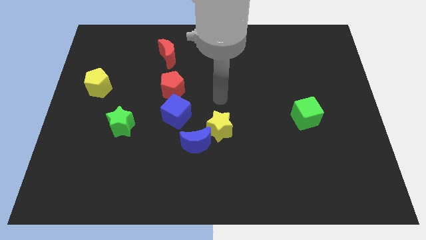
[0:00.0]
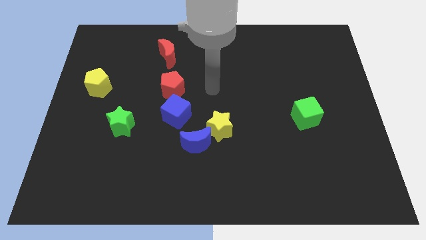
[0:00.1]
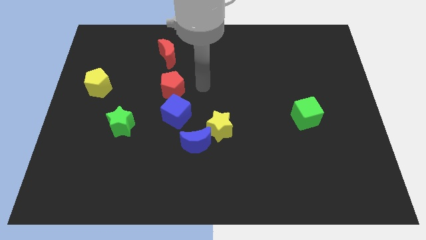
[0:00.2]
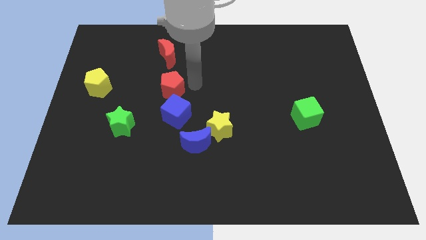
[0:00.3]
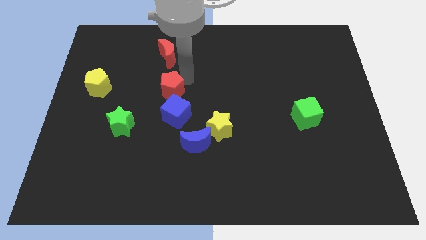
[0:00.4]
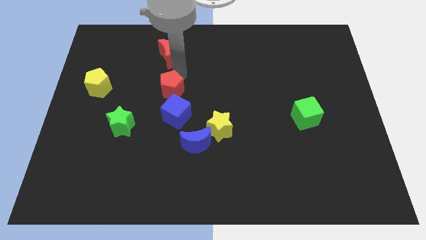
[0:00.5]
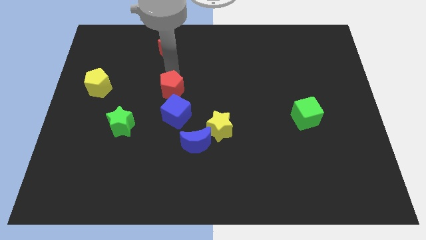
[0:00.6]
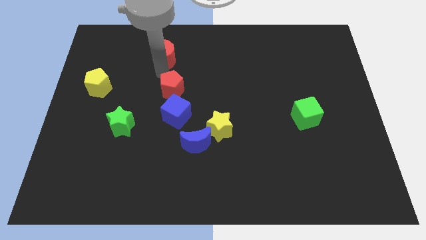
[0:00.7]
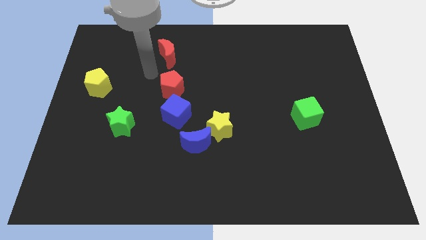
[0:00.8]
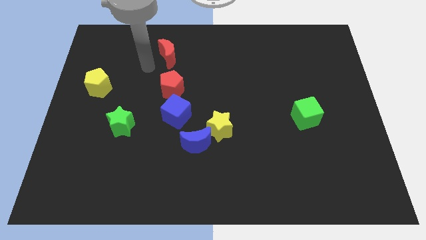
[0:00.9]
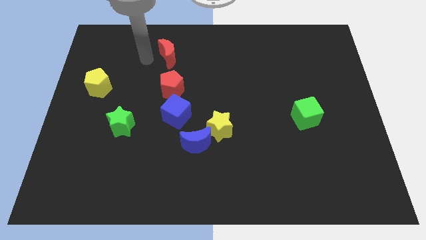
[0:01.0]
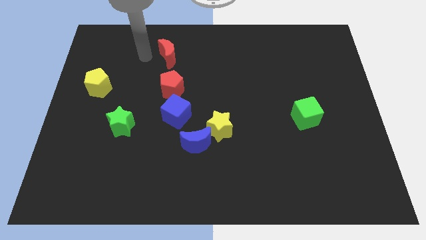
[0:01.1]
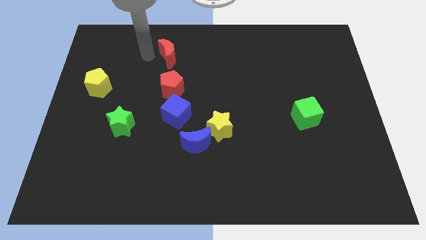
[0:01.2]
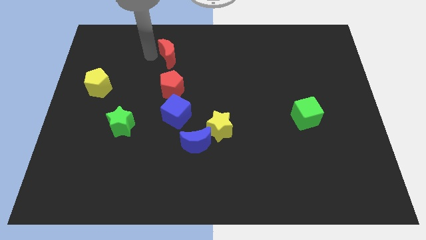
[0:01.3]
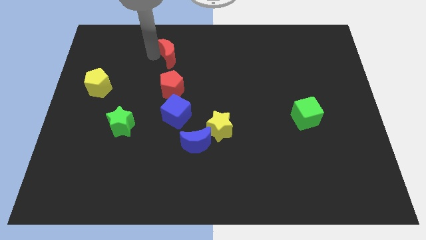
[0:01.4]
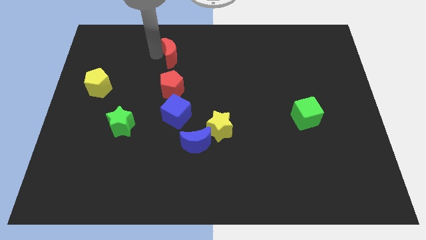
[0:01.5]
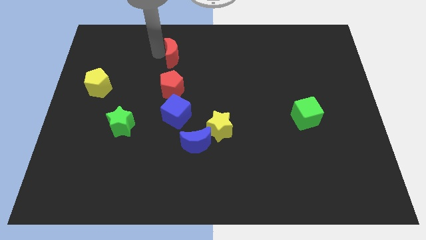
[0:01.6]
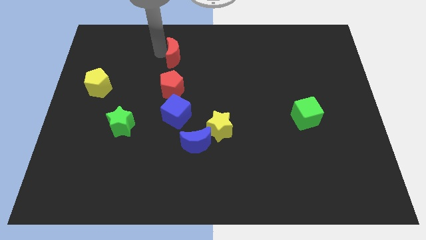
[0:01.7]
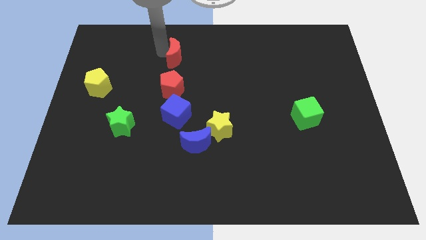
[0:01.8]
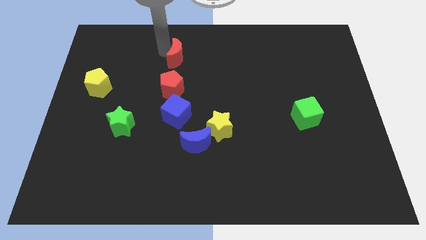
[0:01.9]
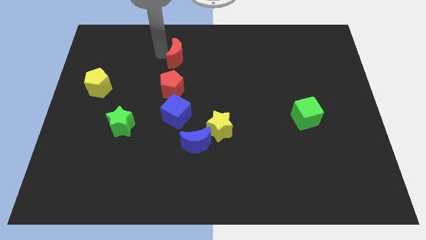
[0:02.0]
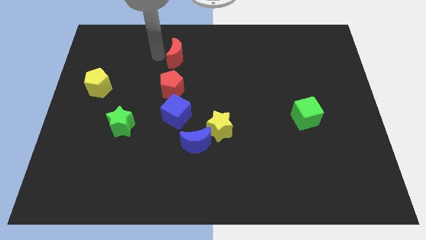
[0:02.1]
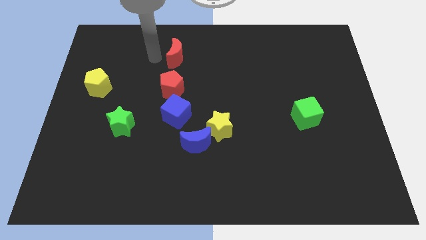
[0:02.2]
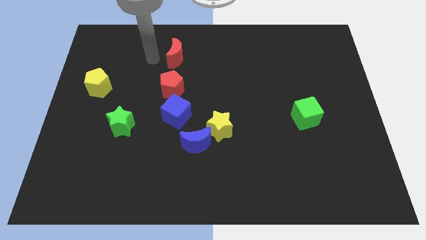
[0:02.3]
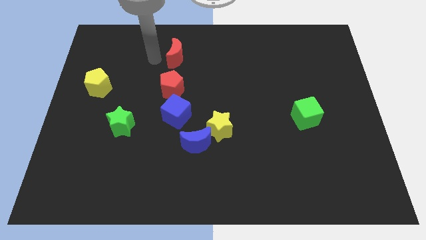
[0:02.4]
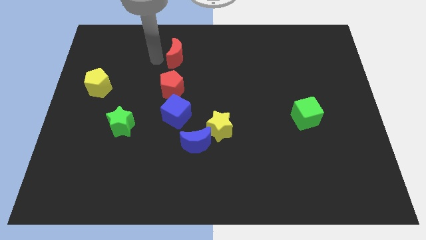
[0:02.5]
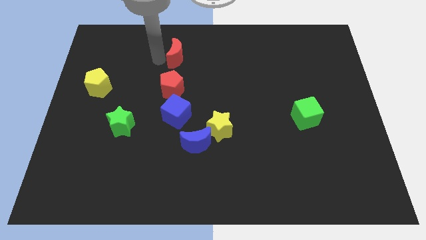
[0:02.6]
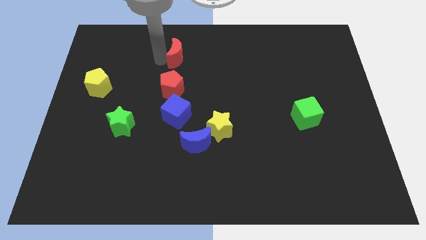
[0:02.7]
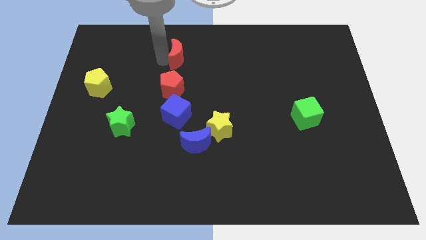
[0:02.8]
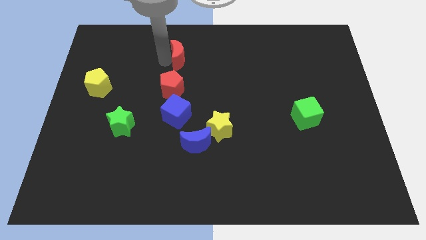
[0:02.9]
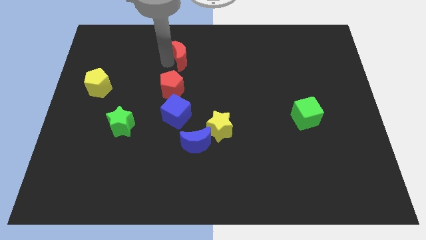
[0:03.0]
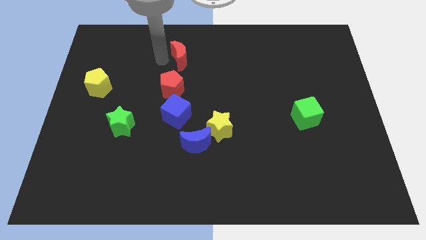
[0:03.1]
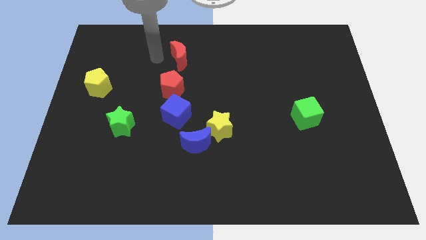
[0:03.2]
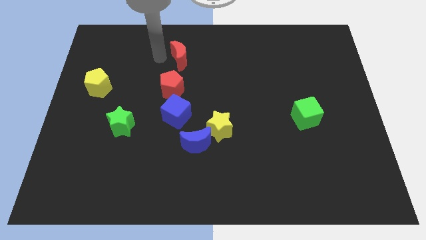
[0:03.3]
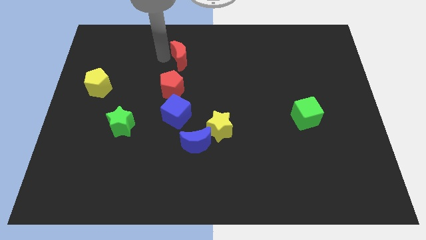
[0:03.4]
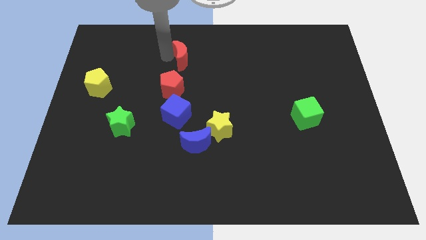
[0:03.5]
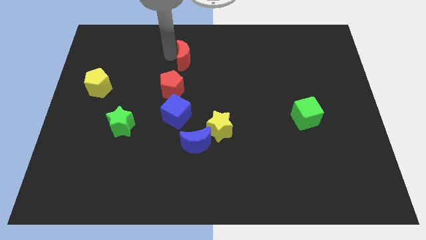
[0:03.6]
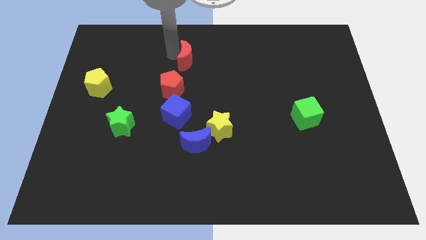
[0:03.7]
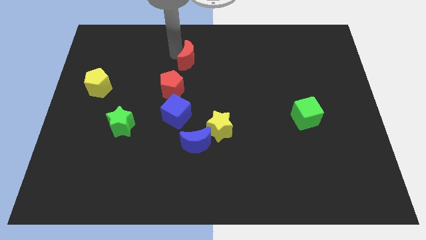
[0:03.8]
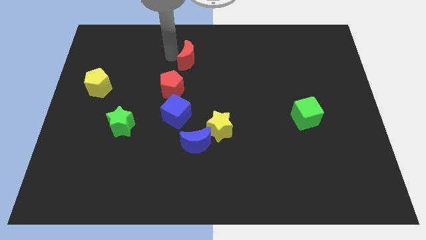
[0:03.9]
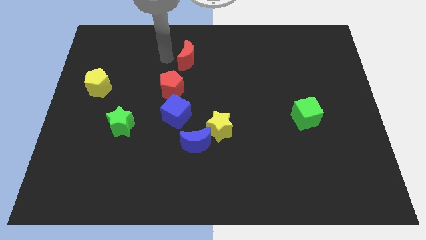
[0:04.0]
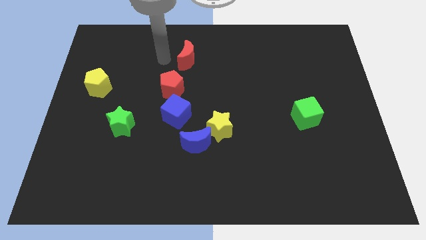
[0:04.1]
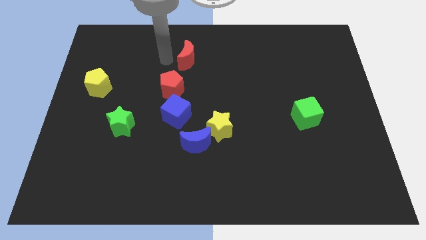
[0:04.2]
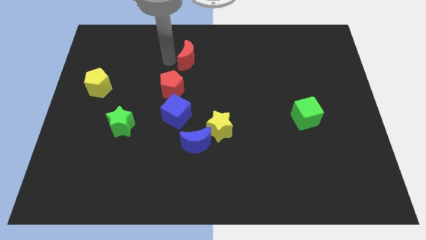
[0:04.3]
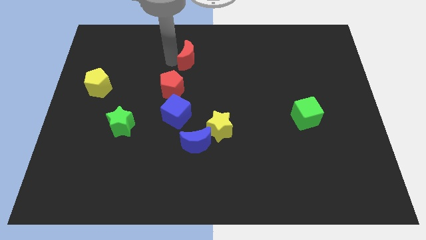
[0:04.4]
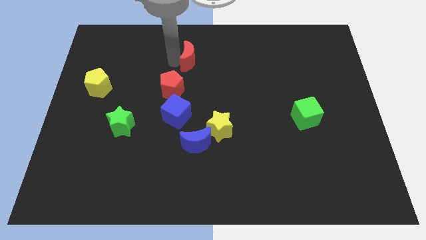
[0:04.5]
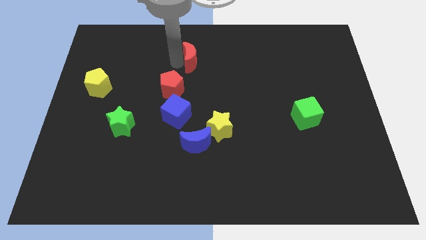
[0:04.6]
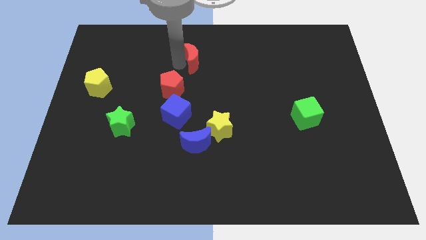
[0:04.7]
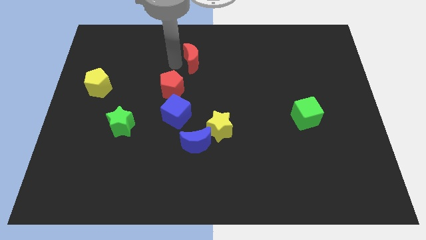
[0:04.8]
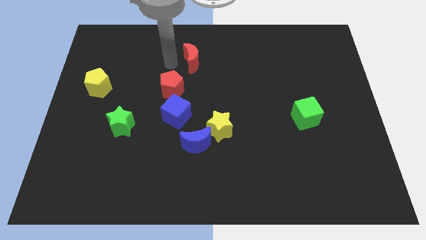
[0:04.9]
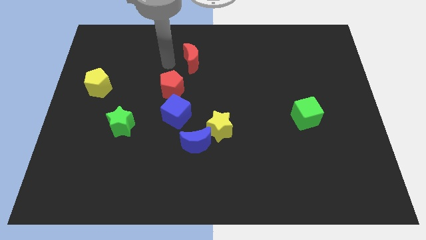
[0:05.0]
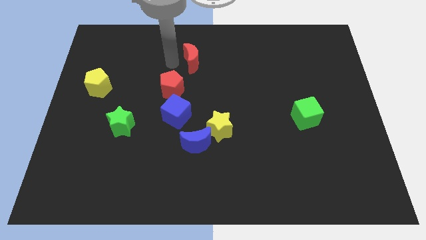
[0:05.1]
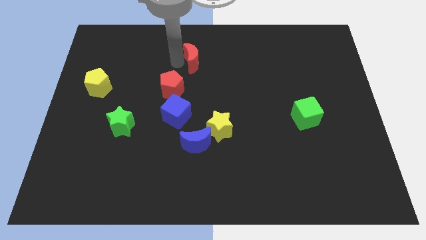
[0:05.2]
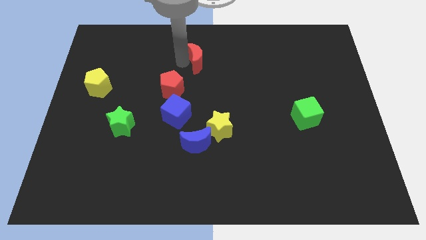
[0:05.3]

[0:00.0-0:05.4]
push the red moon a little right

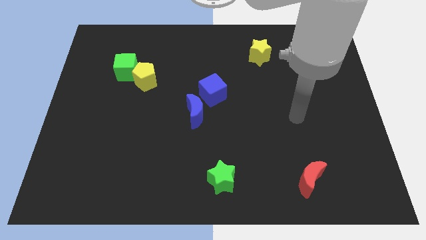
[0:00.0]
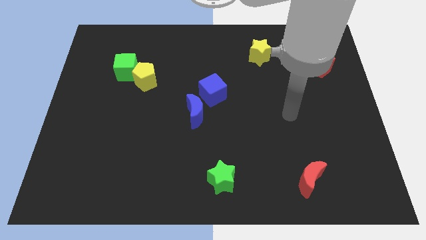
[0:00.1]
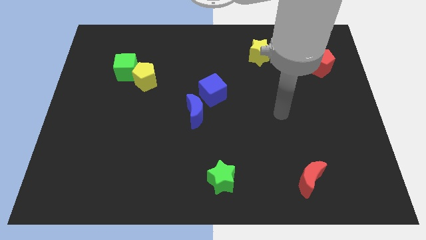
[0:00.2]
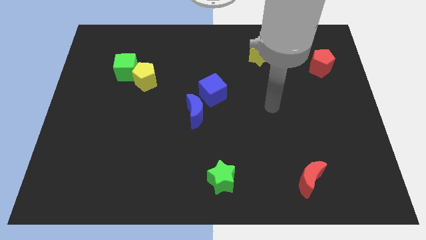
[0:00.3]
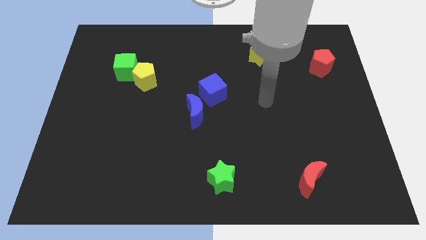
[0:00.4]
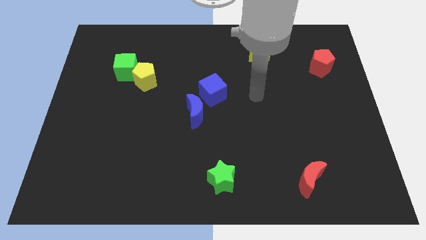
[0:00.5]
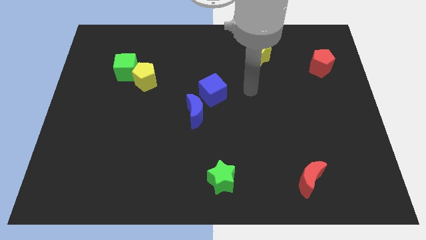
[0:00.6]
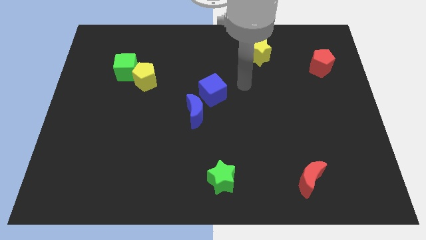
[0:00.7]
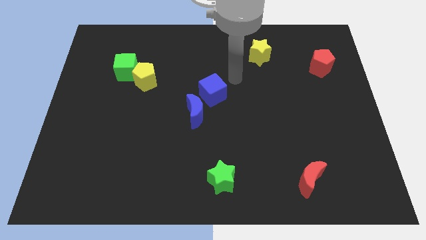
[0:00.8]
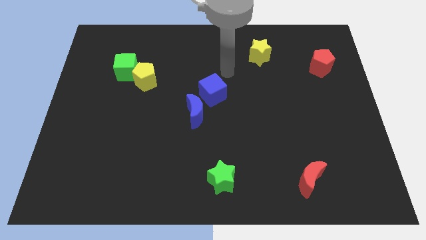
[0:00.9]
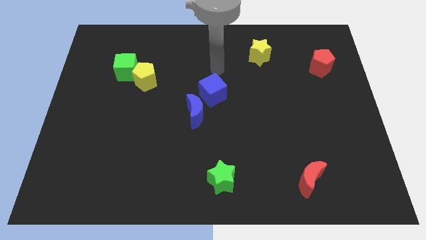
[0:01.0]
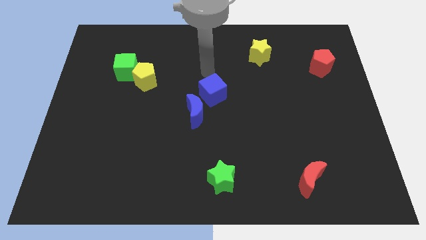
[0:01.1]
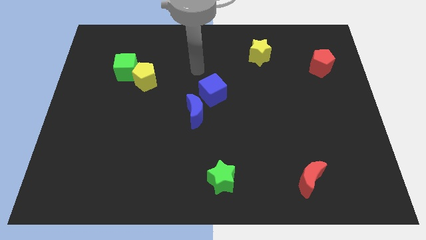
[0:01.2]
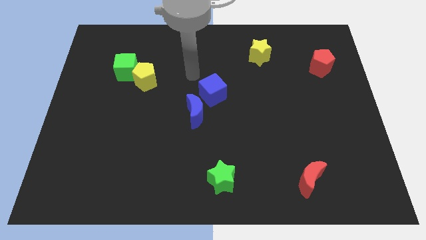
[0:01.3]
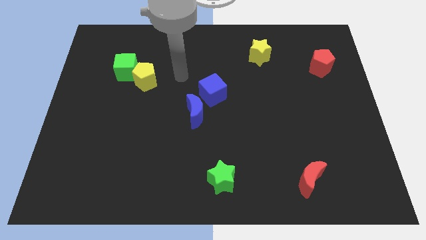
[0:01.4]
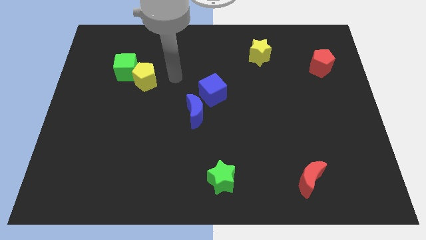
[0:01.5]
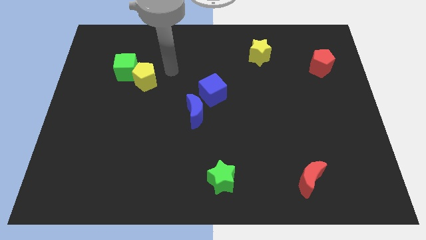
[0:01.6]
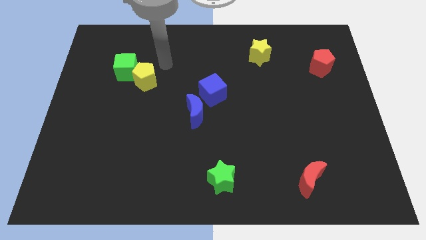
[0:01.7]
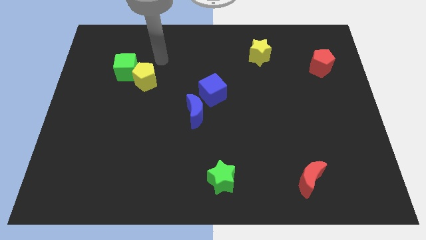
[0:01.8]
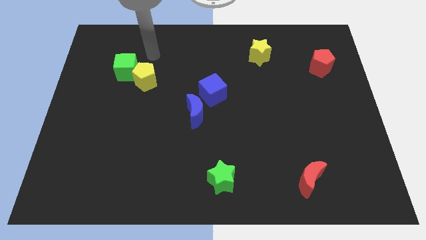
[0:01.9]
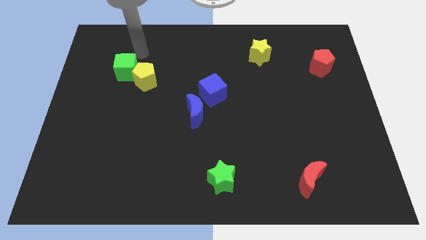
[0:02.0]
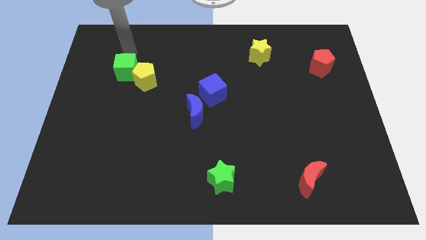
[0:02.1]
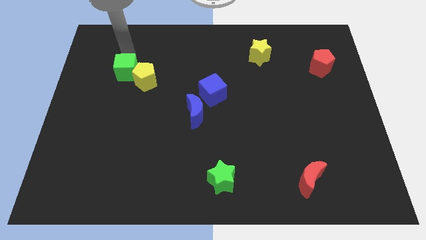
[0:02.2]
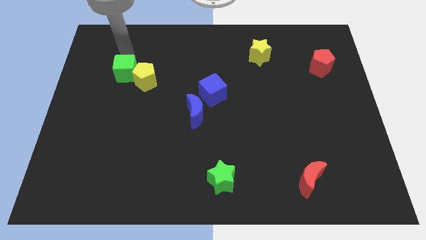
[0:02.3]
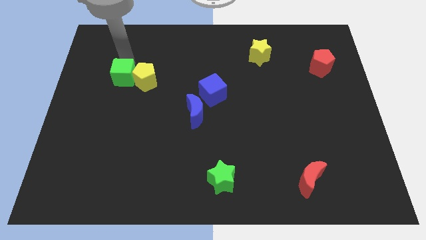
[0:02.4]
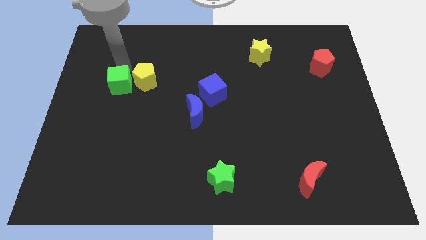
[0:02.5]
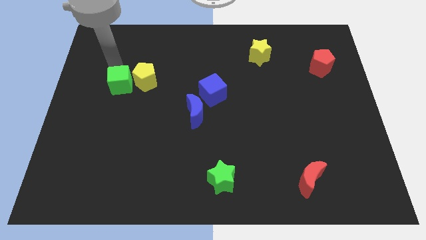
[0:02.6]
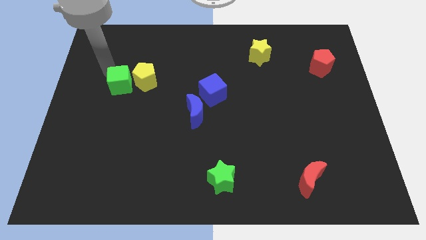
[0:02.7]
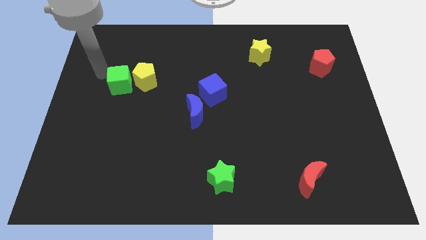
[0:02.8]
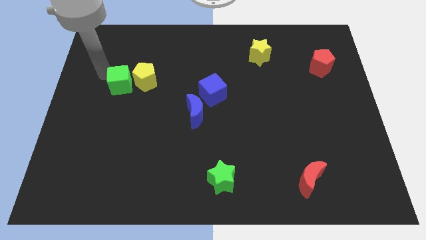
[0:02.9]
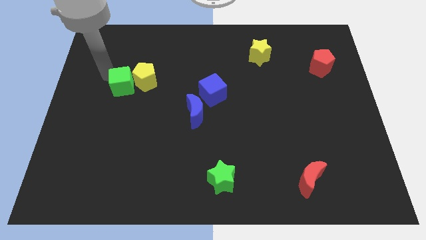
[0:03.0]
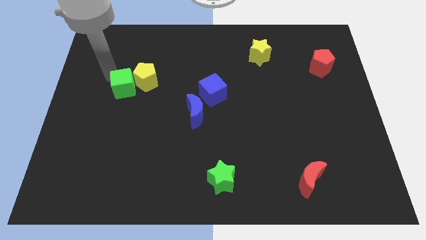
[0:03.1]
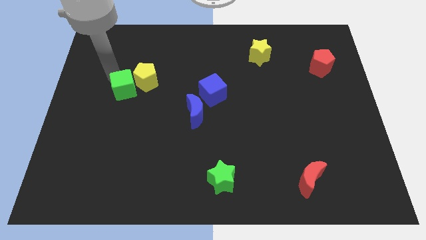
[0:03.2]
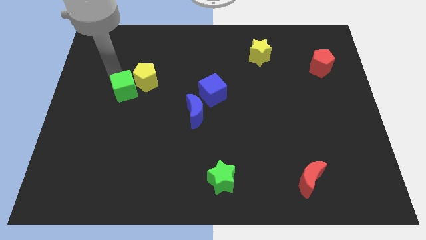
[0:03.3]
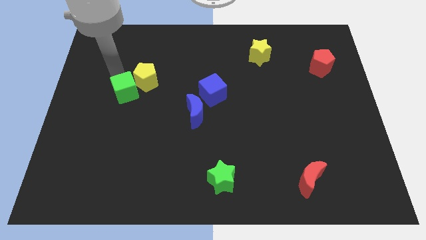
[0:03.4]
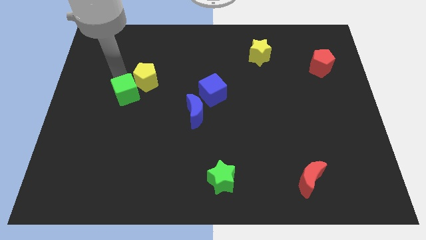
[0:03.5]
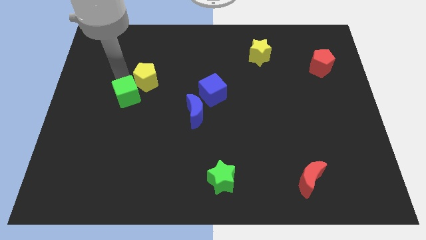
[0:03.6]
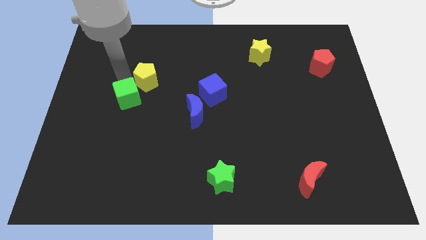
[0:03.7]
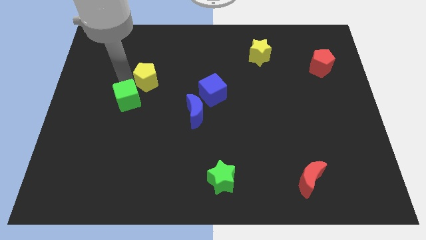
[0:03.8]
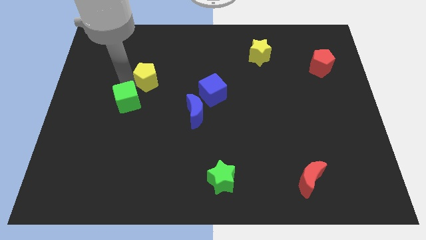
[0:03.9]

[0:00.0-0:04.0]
slide the green cube downwards and to the right diagonally a bit
